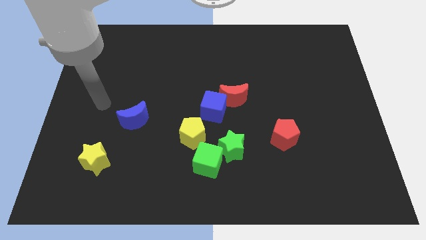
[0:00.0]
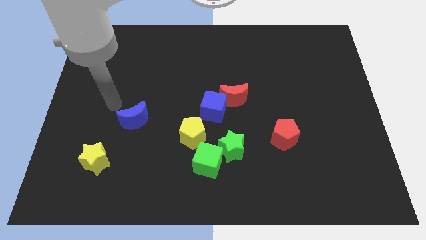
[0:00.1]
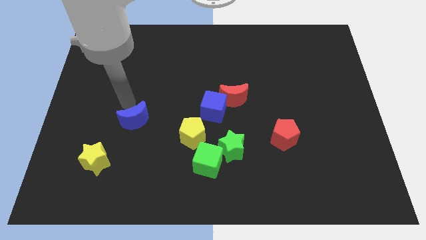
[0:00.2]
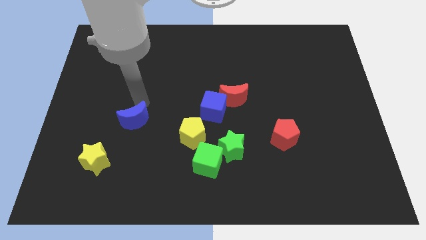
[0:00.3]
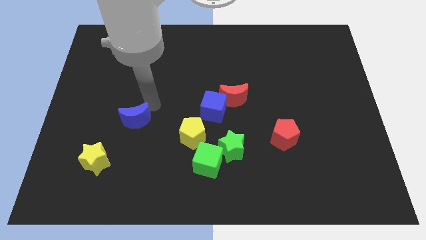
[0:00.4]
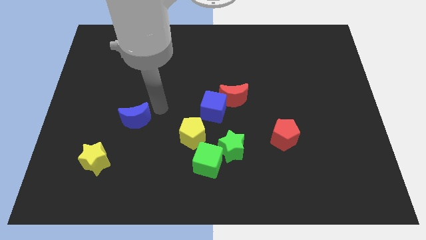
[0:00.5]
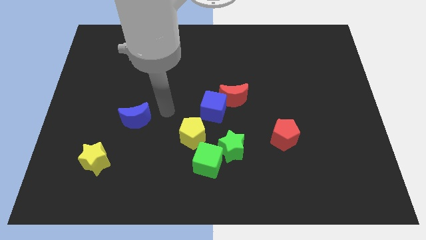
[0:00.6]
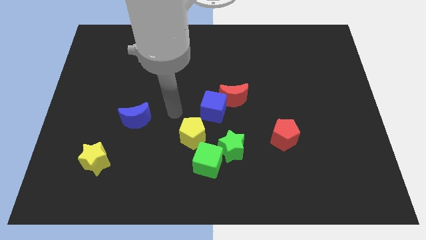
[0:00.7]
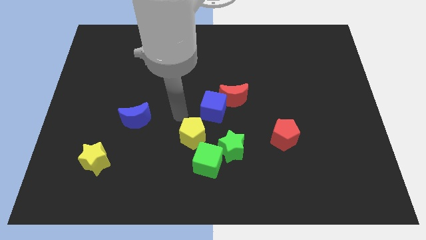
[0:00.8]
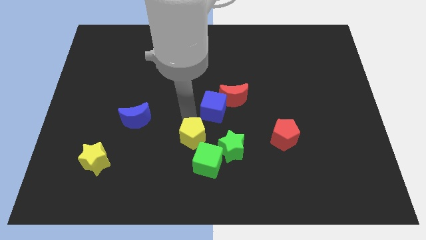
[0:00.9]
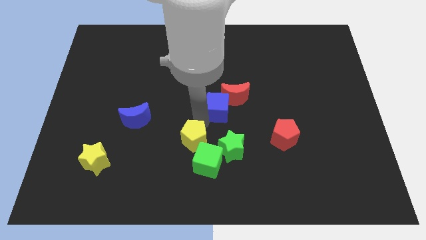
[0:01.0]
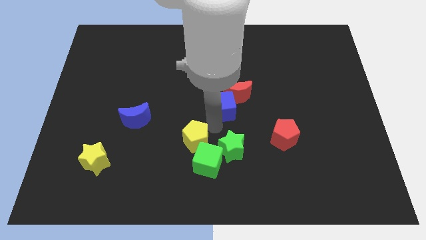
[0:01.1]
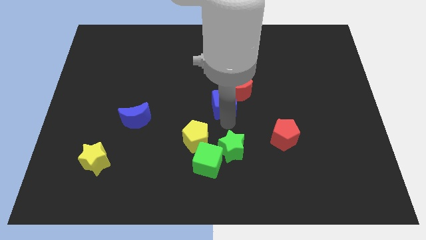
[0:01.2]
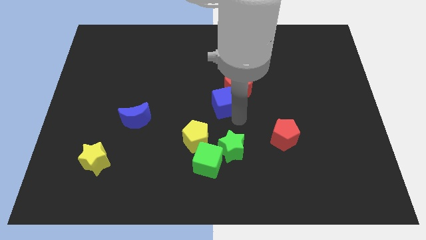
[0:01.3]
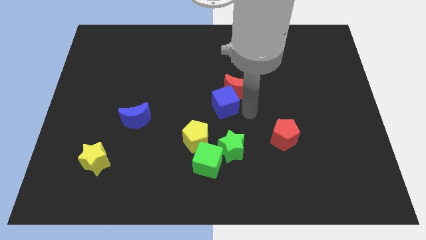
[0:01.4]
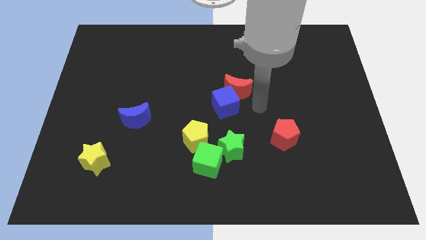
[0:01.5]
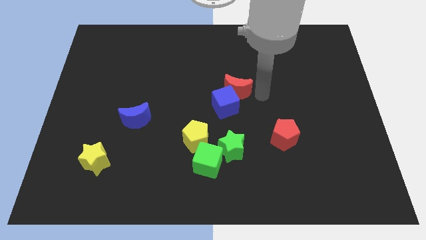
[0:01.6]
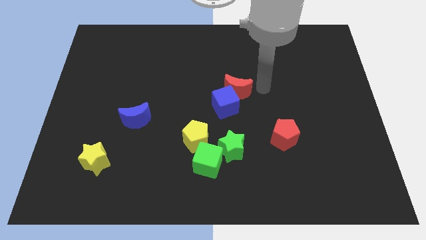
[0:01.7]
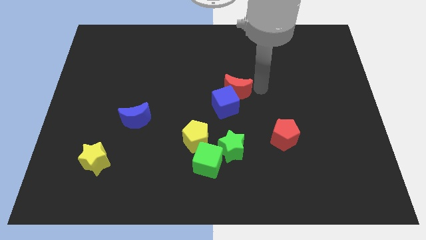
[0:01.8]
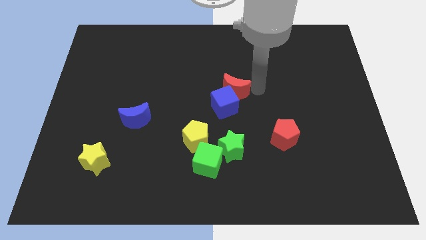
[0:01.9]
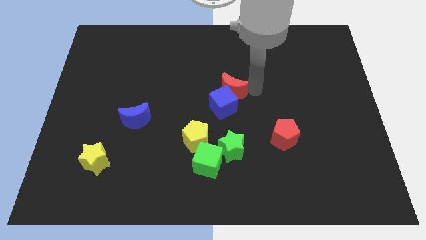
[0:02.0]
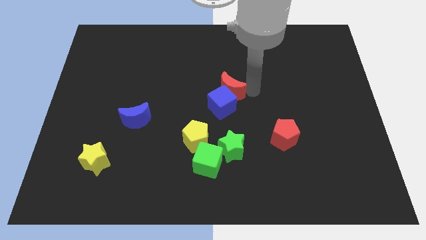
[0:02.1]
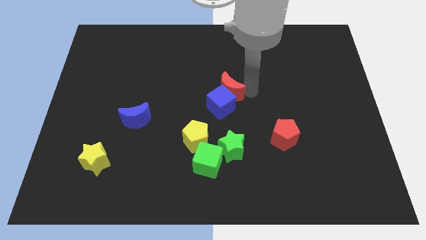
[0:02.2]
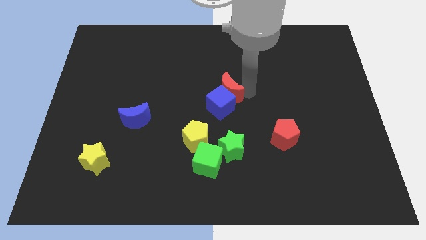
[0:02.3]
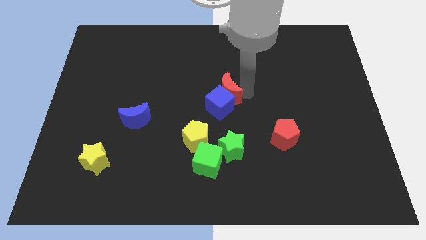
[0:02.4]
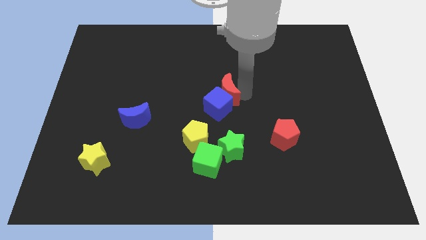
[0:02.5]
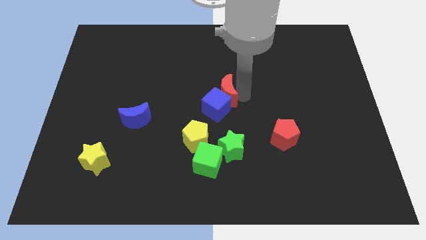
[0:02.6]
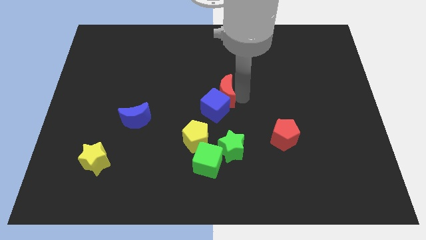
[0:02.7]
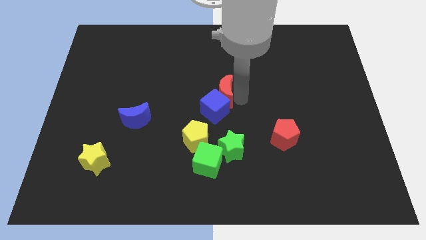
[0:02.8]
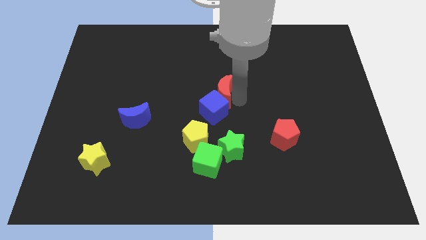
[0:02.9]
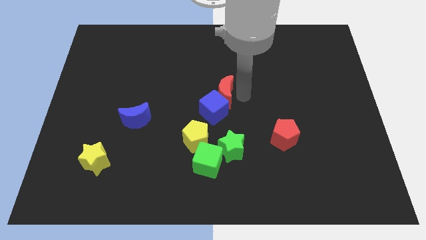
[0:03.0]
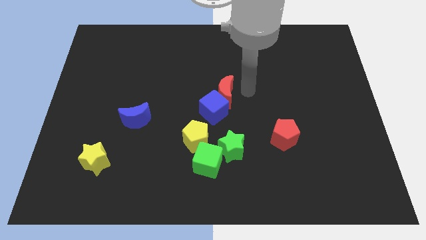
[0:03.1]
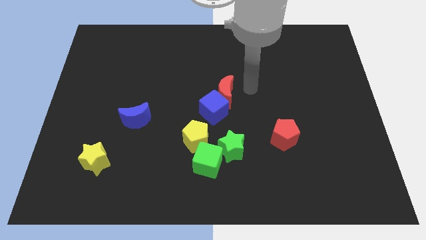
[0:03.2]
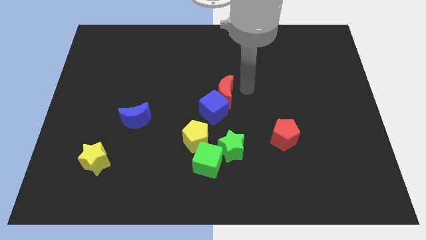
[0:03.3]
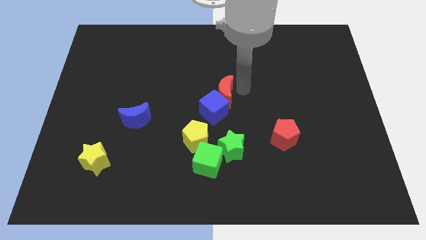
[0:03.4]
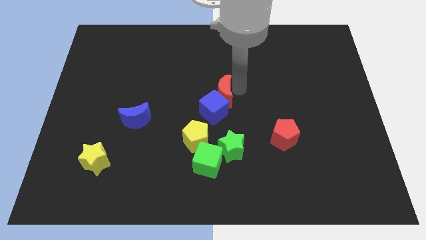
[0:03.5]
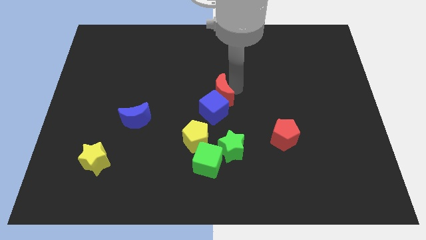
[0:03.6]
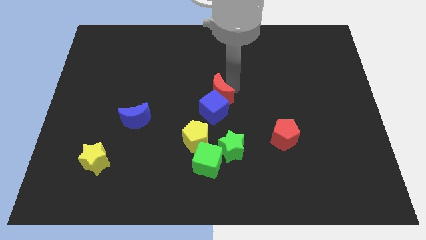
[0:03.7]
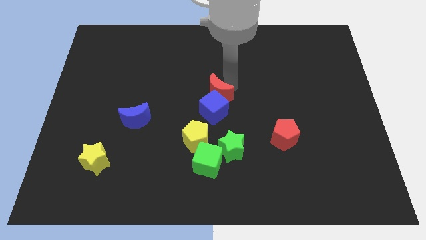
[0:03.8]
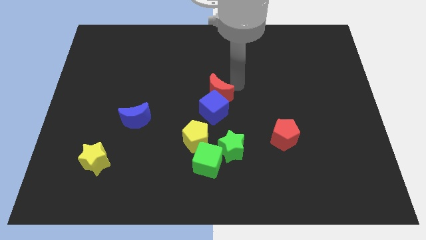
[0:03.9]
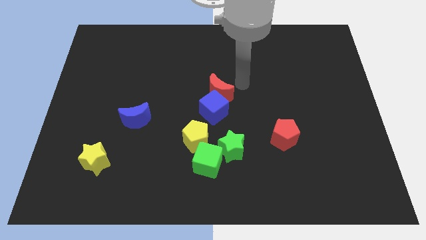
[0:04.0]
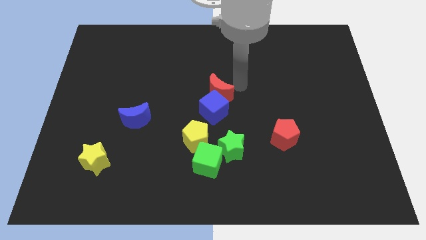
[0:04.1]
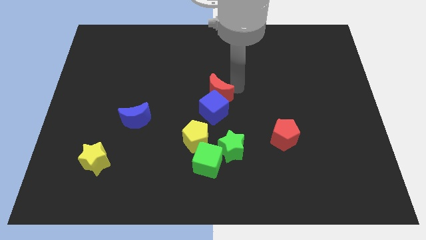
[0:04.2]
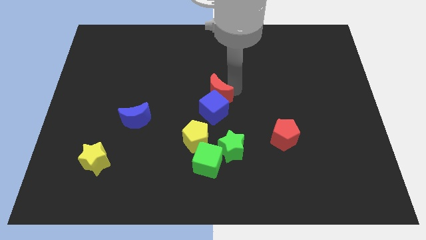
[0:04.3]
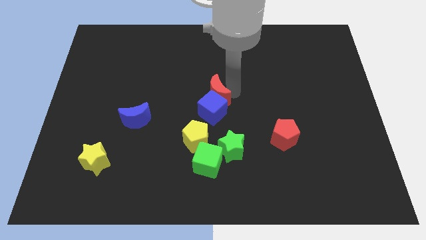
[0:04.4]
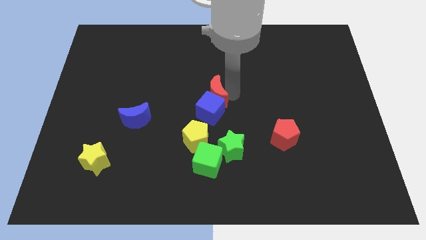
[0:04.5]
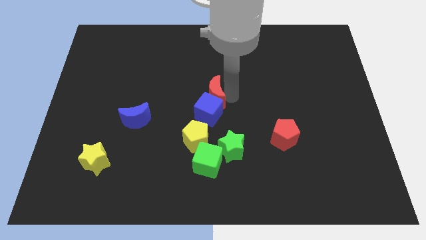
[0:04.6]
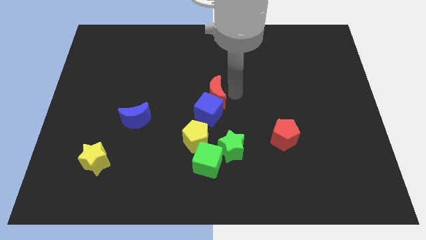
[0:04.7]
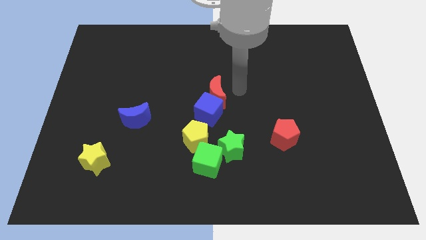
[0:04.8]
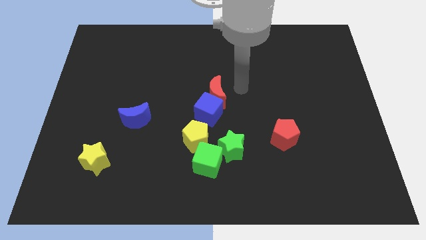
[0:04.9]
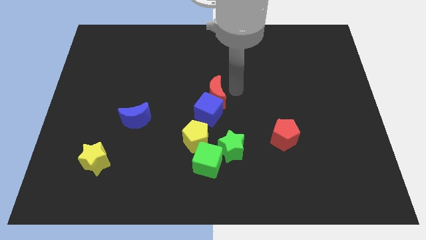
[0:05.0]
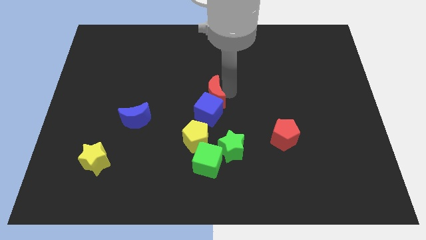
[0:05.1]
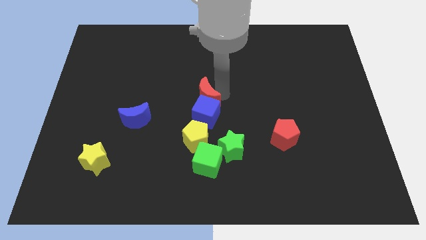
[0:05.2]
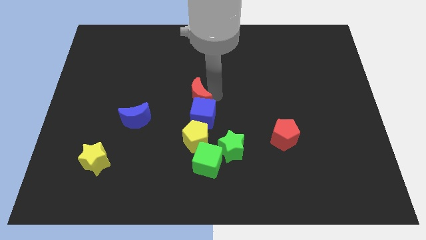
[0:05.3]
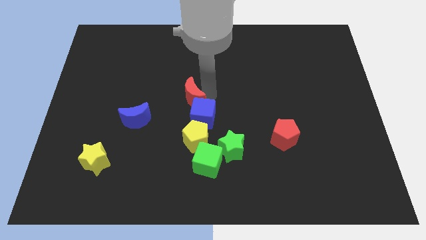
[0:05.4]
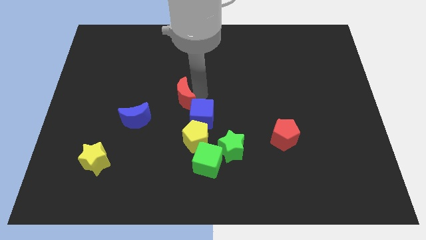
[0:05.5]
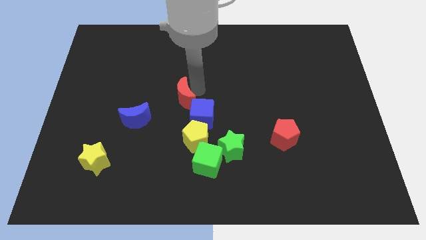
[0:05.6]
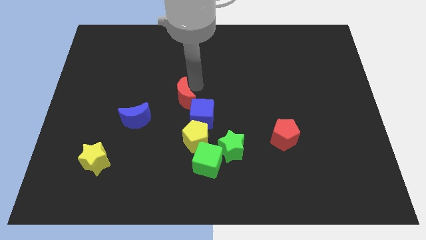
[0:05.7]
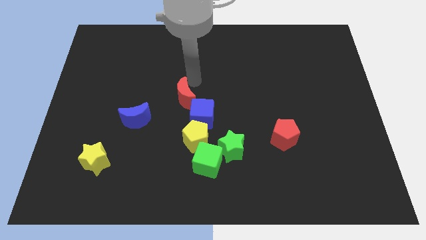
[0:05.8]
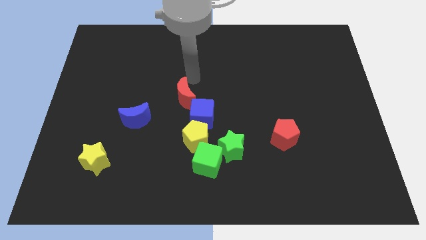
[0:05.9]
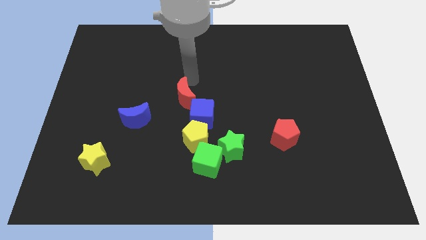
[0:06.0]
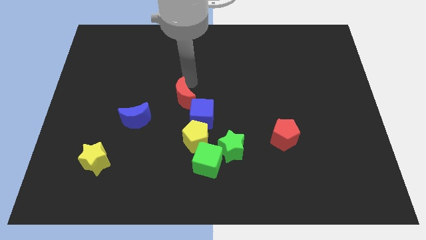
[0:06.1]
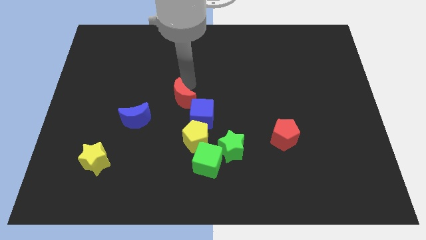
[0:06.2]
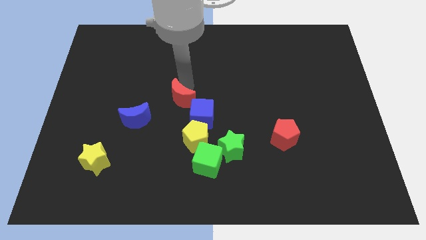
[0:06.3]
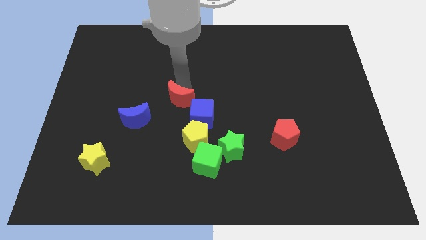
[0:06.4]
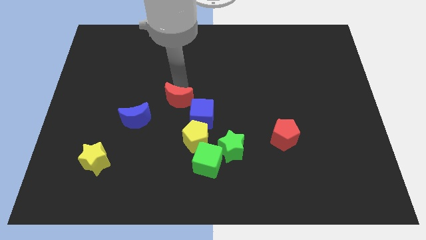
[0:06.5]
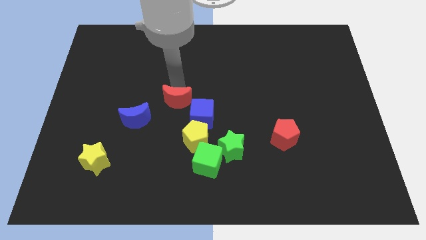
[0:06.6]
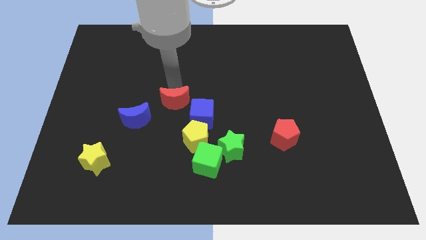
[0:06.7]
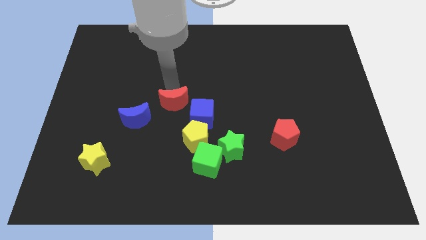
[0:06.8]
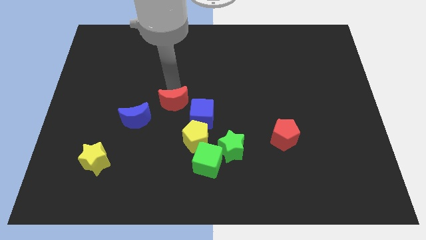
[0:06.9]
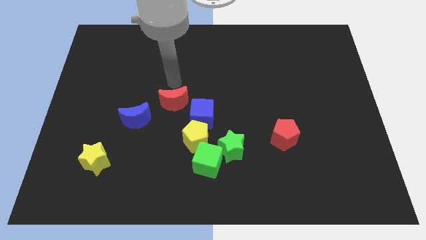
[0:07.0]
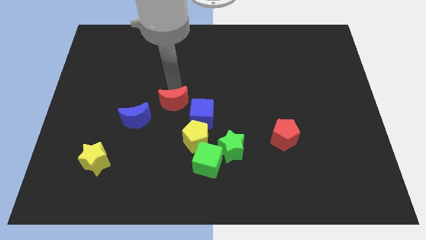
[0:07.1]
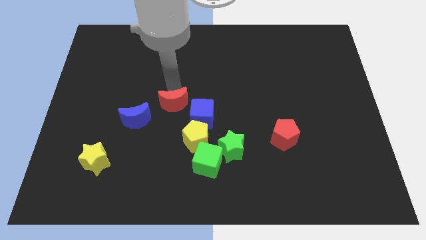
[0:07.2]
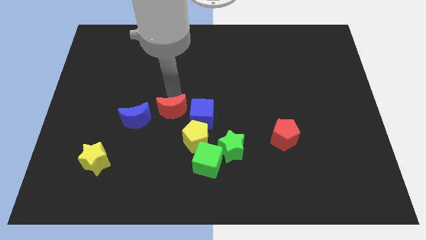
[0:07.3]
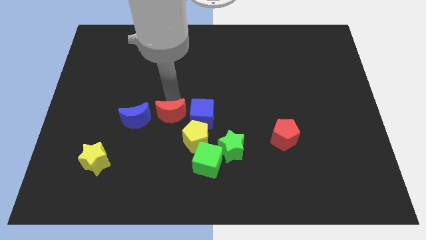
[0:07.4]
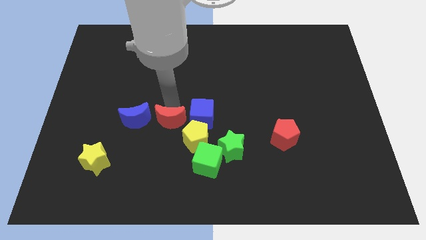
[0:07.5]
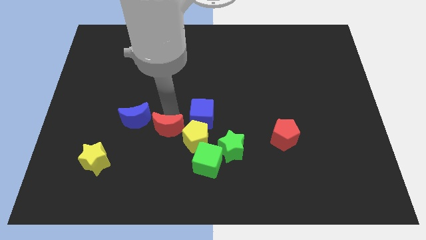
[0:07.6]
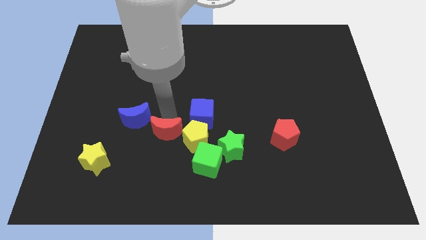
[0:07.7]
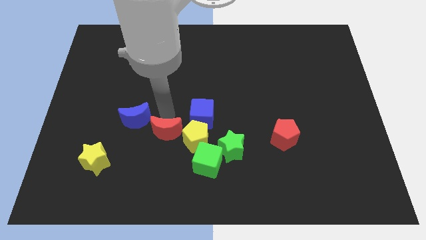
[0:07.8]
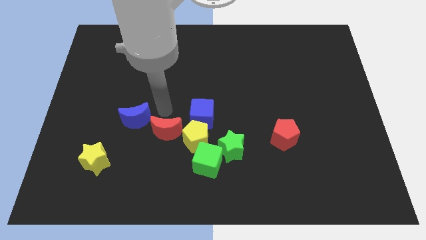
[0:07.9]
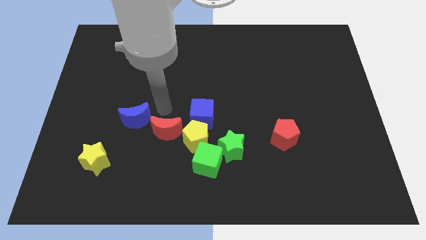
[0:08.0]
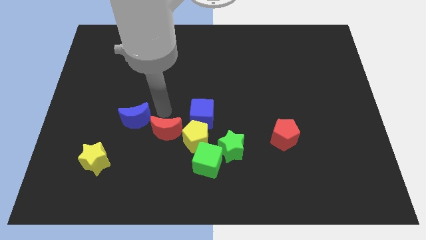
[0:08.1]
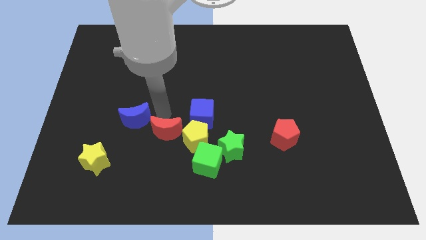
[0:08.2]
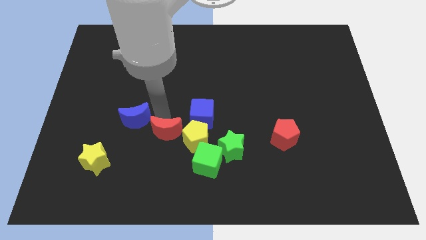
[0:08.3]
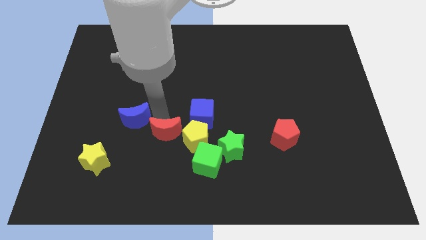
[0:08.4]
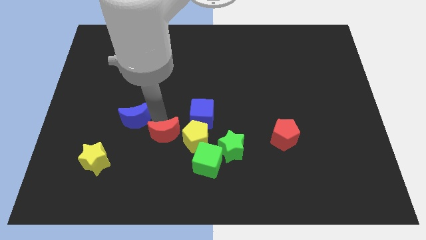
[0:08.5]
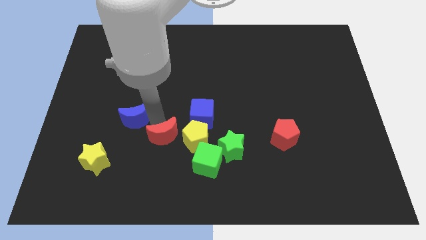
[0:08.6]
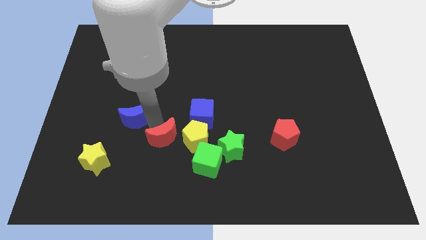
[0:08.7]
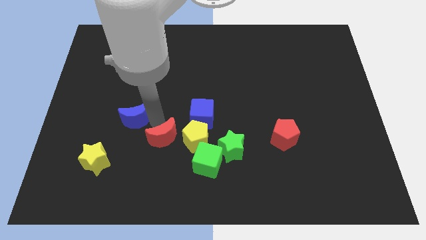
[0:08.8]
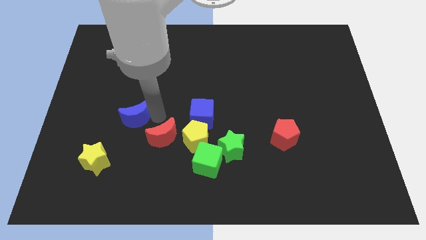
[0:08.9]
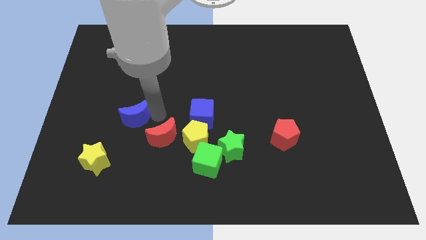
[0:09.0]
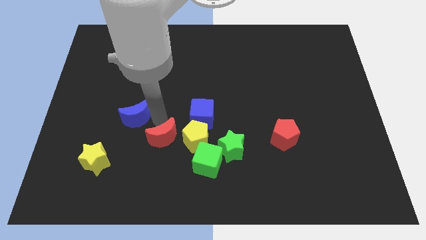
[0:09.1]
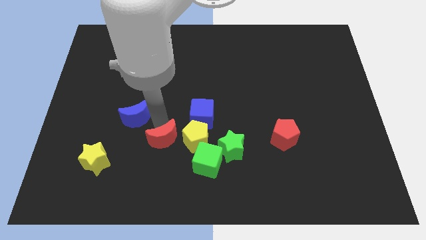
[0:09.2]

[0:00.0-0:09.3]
move the red moon diagonally down and to the left of the yellow pentagon
